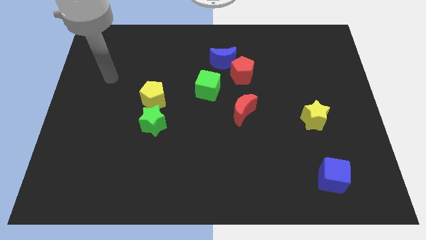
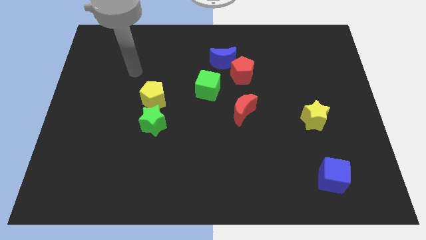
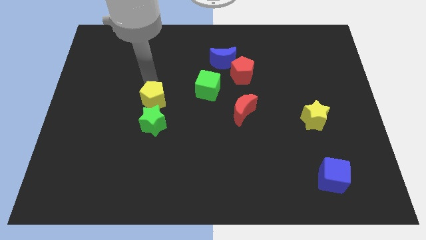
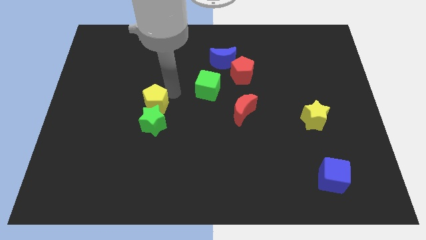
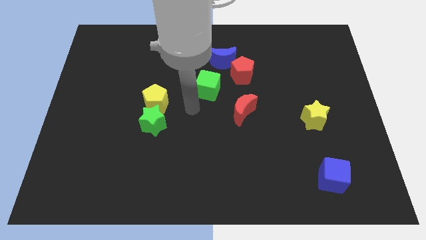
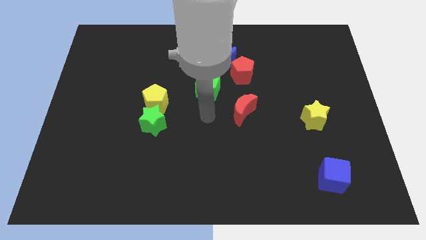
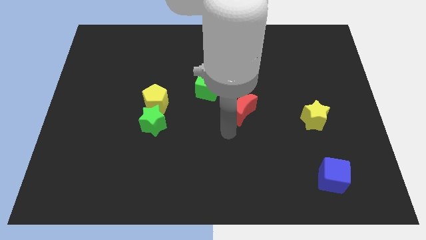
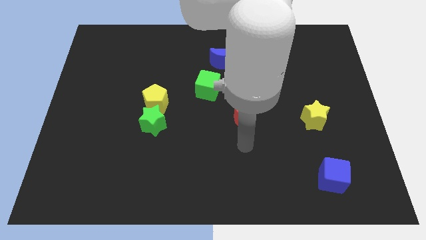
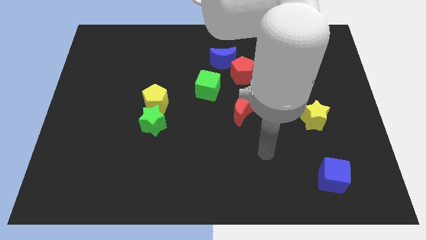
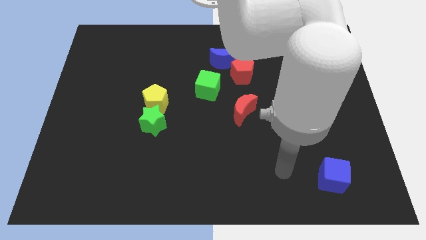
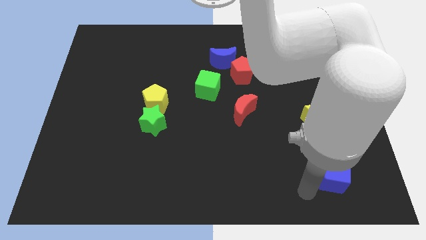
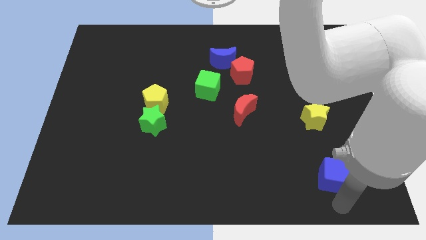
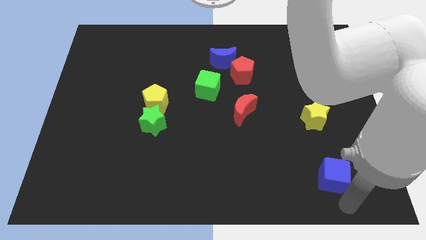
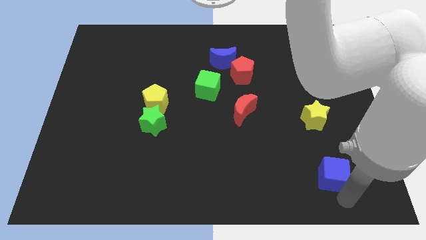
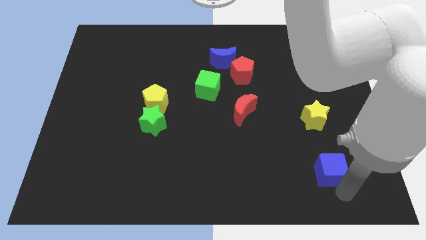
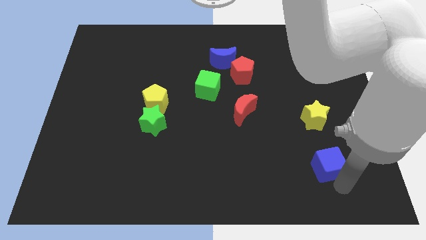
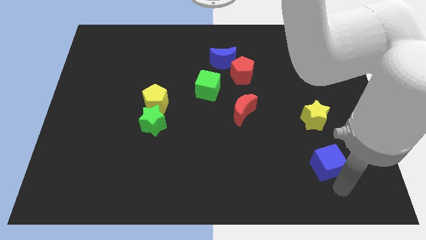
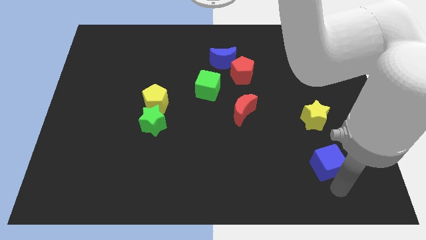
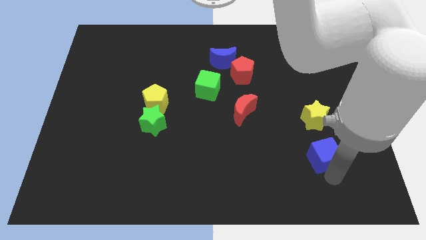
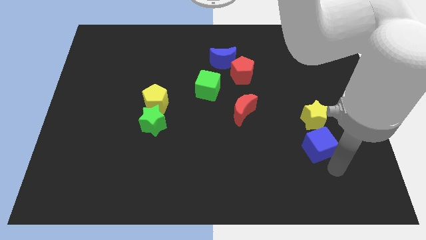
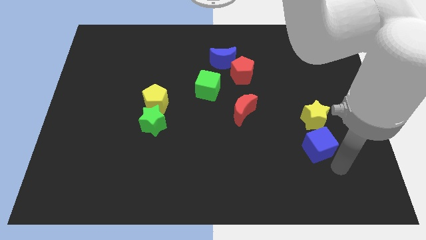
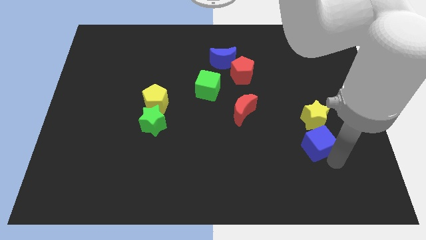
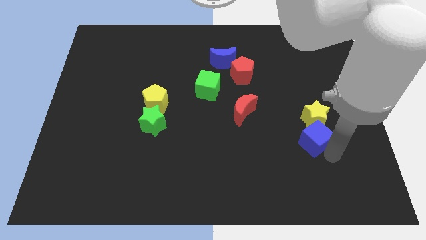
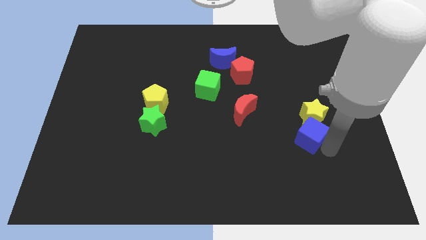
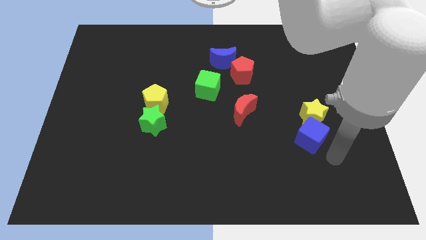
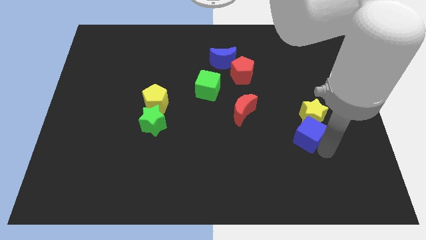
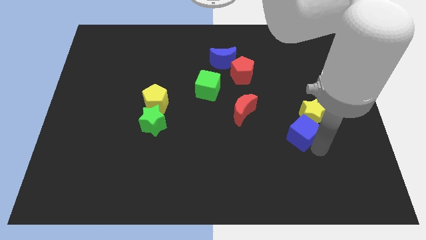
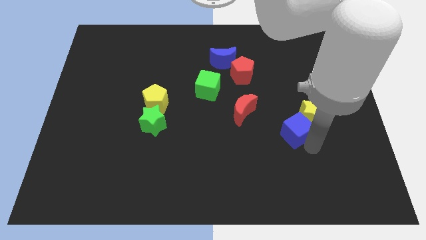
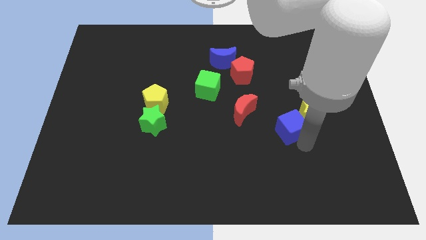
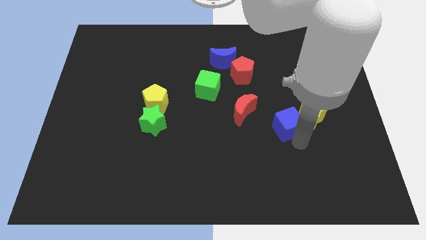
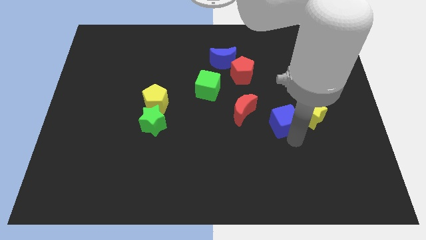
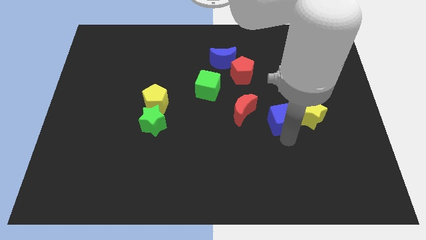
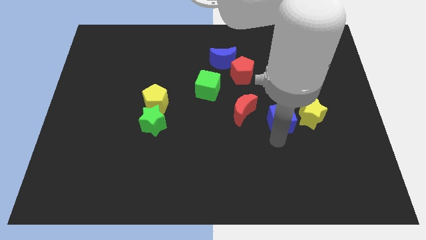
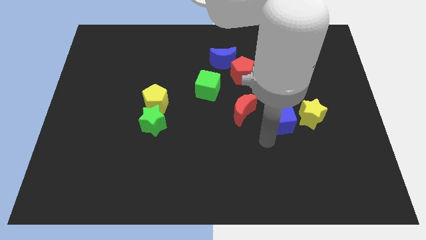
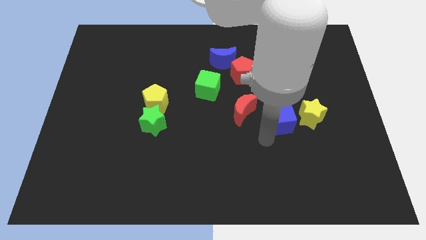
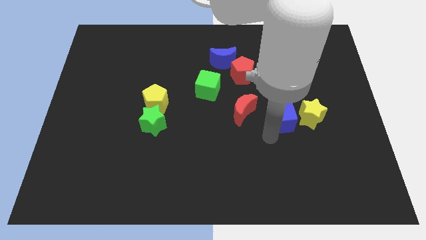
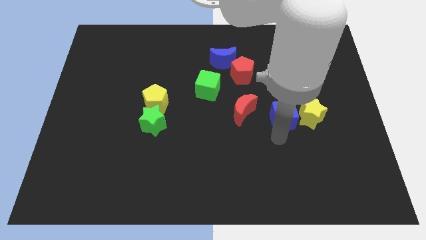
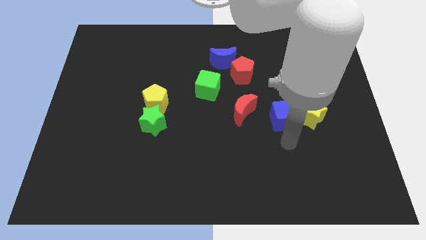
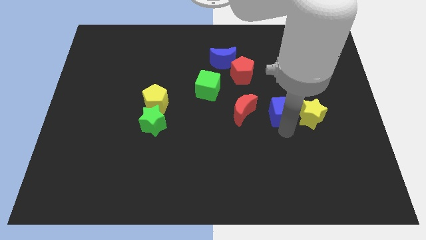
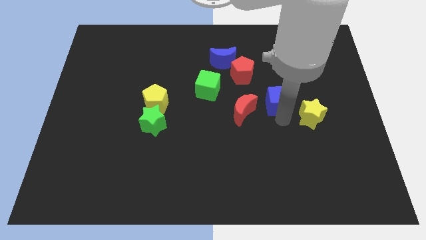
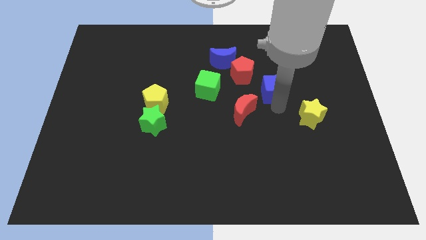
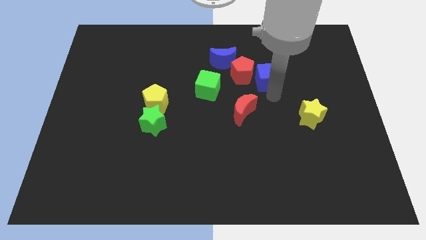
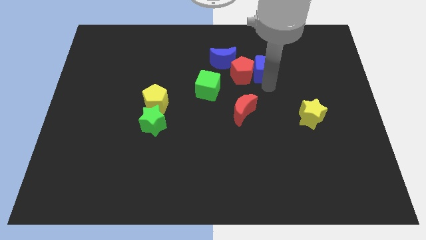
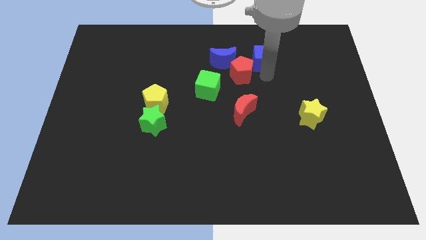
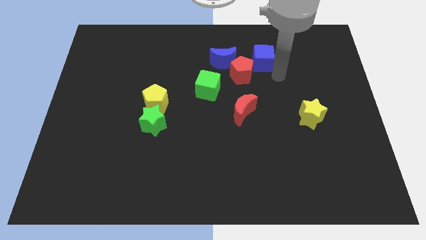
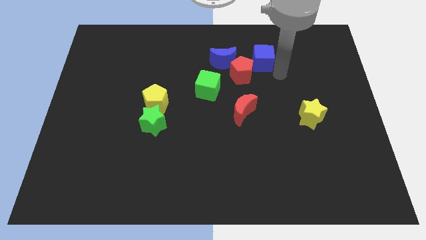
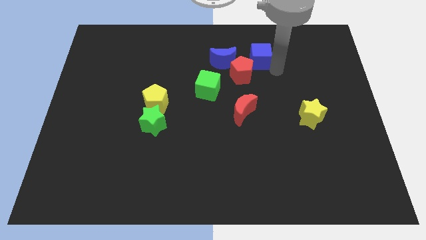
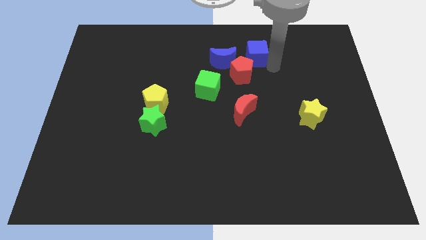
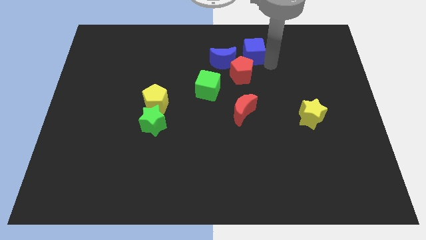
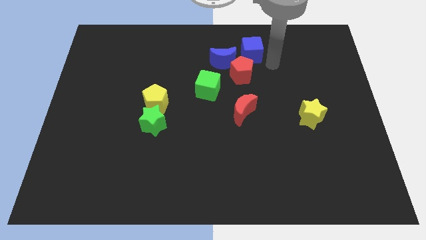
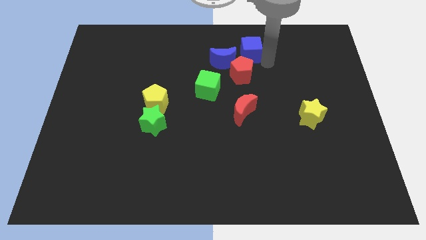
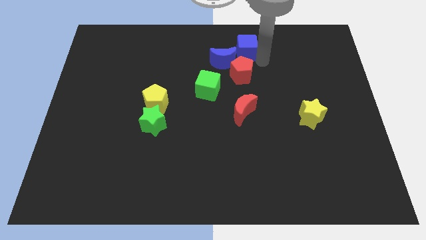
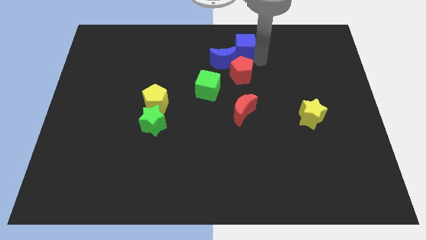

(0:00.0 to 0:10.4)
put the blue cube to the top
